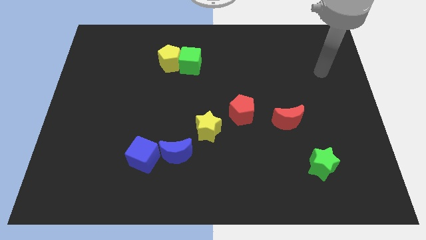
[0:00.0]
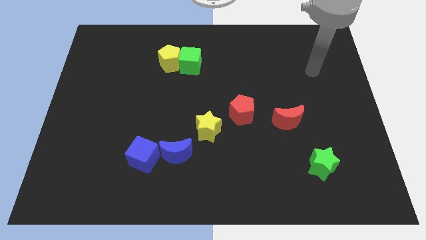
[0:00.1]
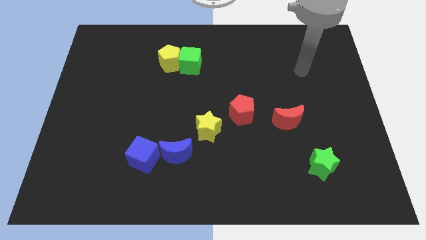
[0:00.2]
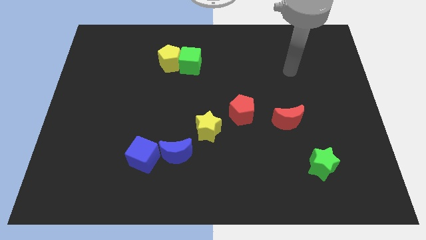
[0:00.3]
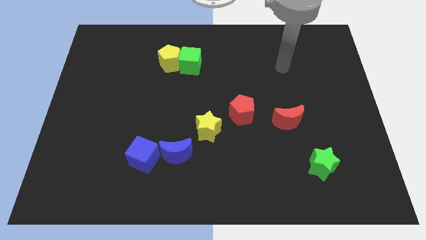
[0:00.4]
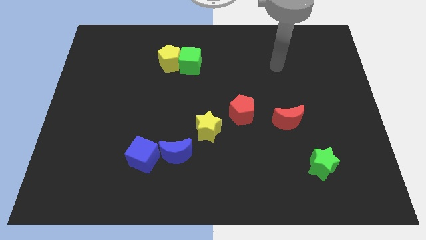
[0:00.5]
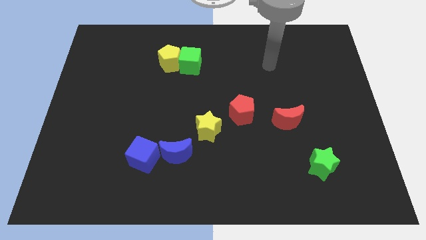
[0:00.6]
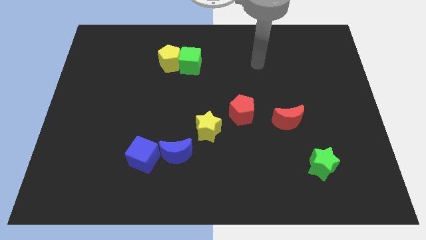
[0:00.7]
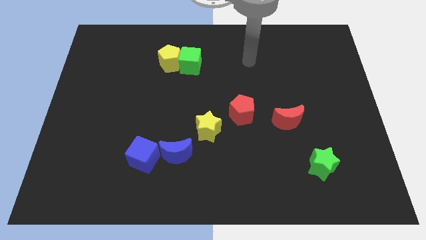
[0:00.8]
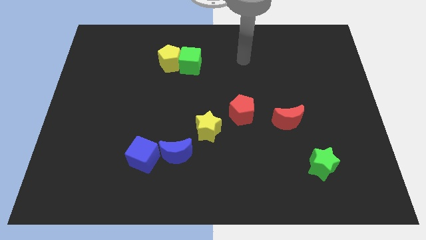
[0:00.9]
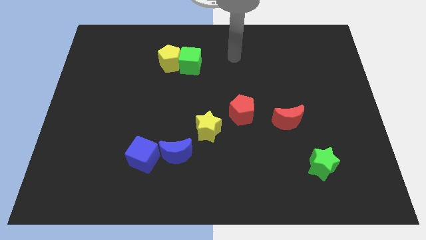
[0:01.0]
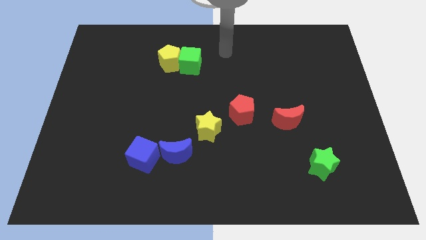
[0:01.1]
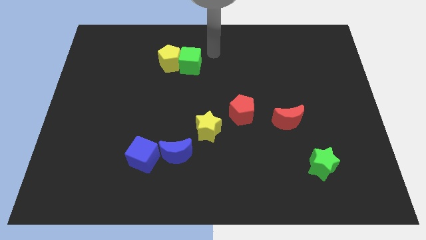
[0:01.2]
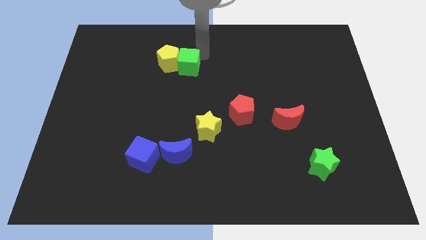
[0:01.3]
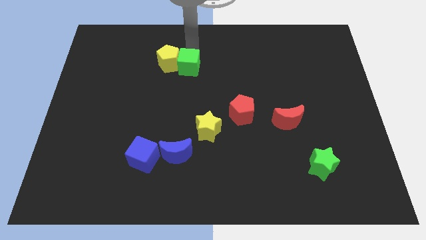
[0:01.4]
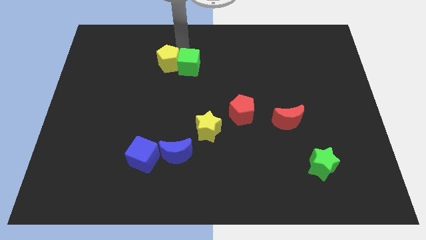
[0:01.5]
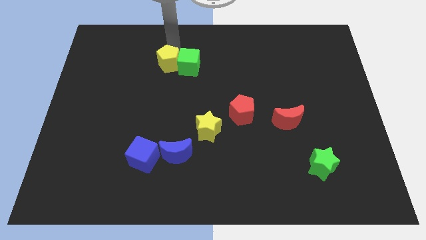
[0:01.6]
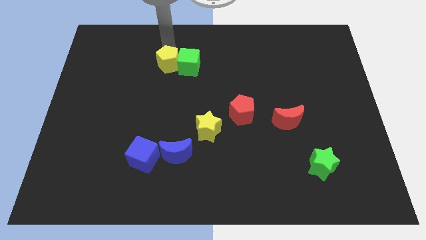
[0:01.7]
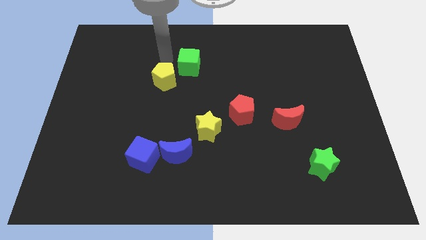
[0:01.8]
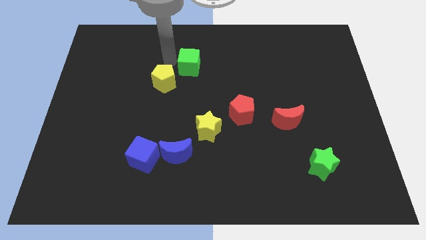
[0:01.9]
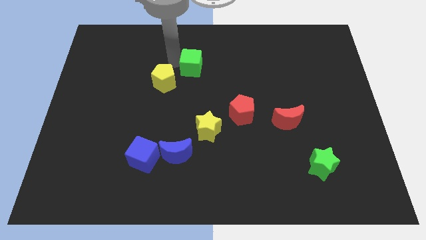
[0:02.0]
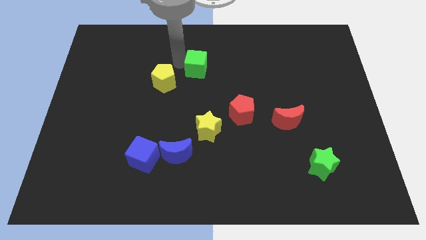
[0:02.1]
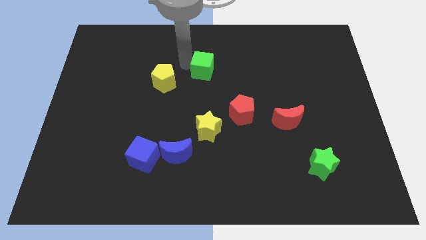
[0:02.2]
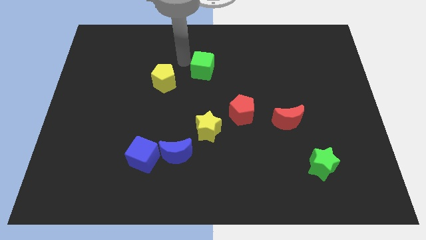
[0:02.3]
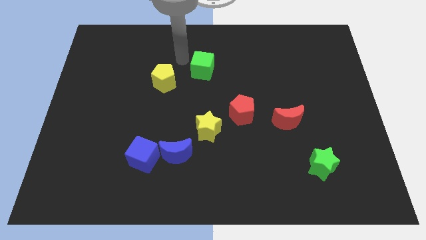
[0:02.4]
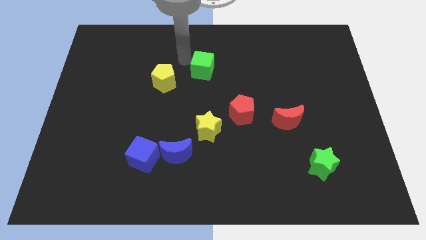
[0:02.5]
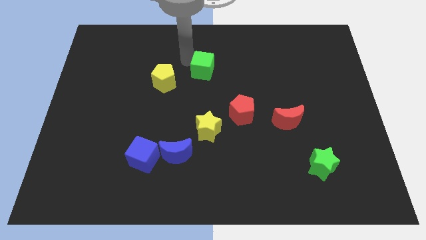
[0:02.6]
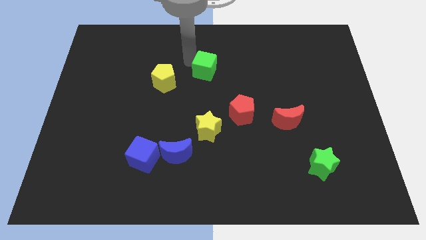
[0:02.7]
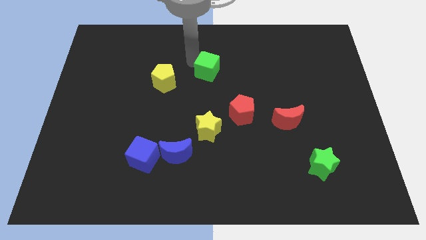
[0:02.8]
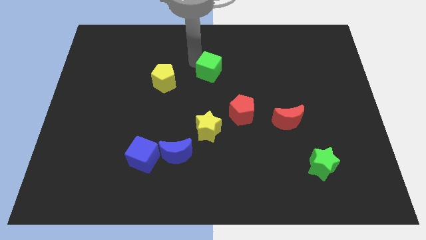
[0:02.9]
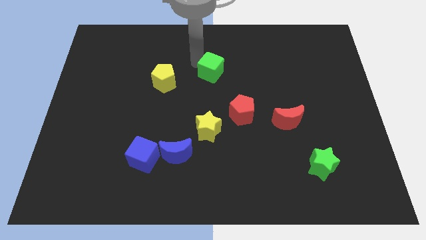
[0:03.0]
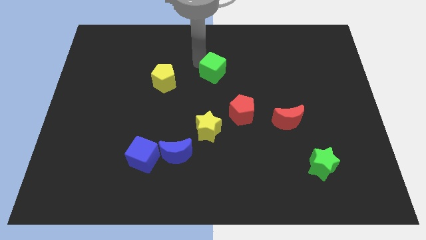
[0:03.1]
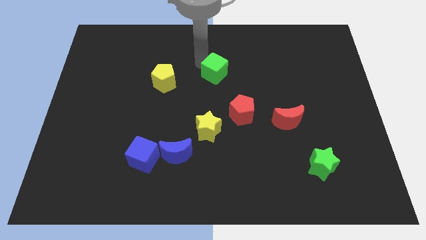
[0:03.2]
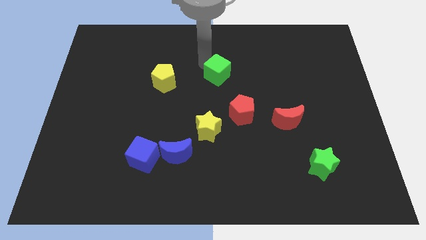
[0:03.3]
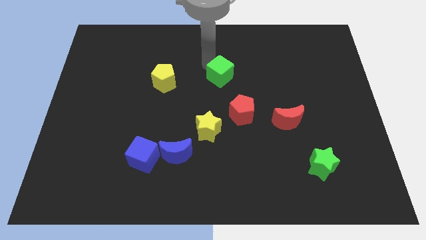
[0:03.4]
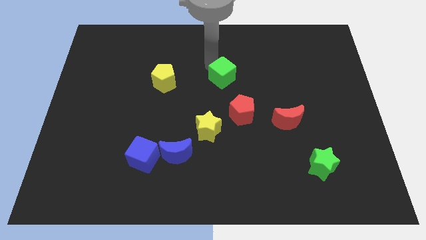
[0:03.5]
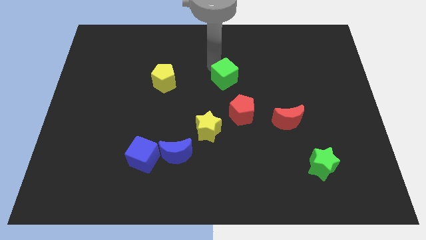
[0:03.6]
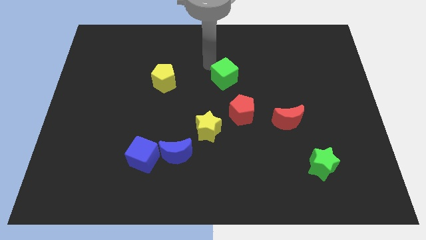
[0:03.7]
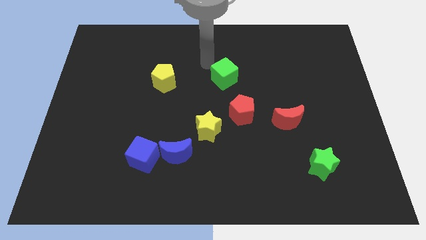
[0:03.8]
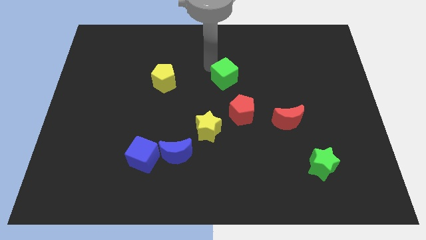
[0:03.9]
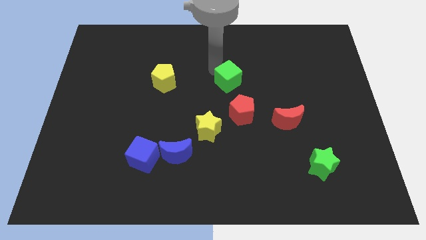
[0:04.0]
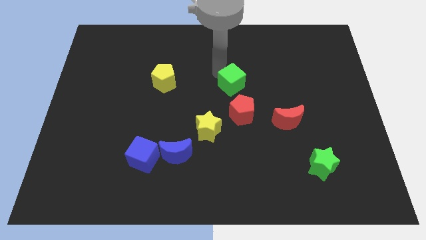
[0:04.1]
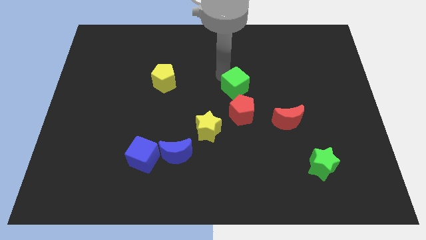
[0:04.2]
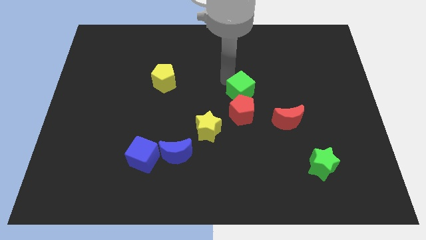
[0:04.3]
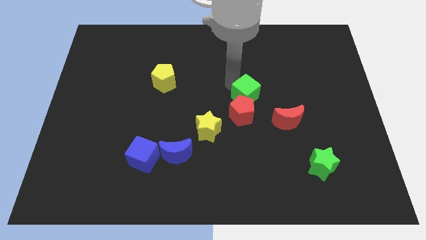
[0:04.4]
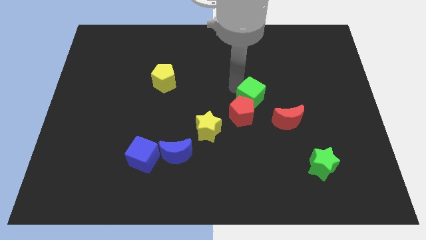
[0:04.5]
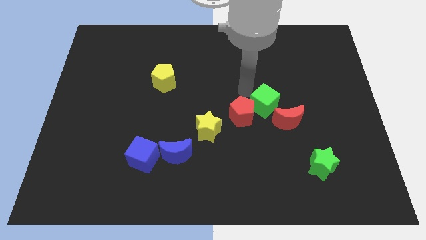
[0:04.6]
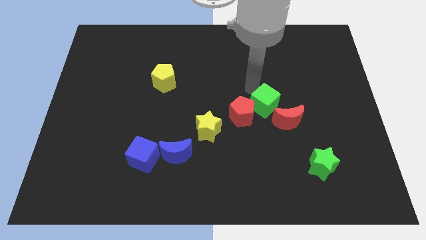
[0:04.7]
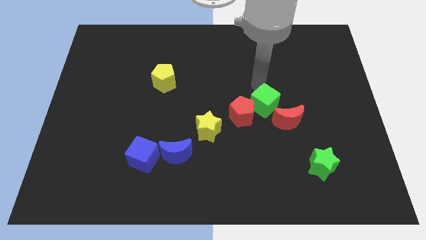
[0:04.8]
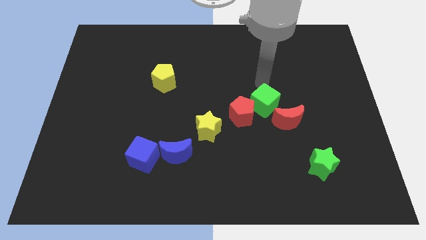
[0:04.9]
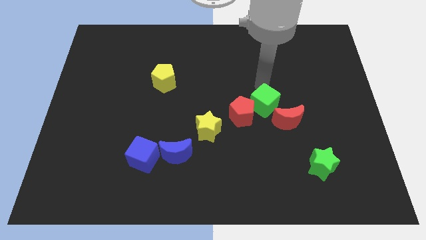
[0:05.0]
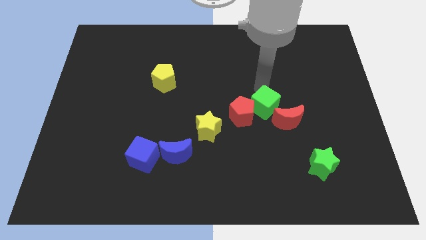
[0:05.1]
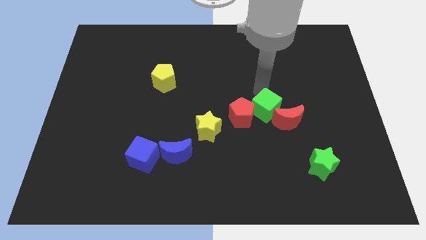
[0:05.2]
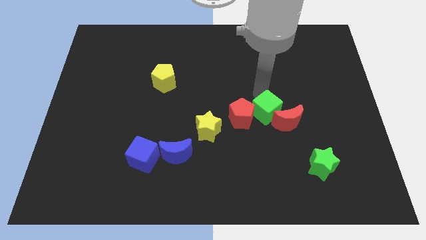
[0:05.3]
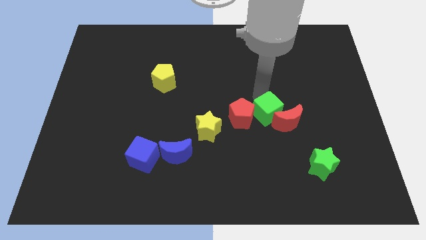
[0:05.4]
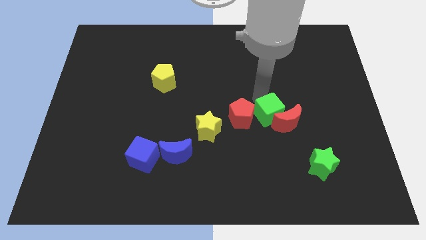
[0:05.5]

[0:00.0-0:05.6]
put the green cube diagonally down and to the right of the red pentagon

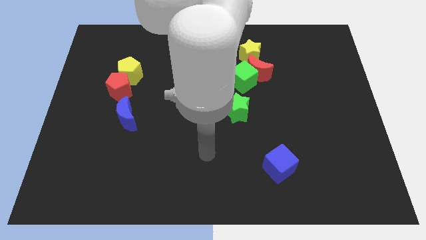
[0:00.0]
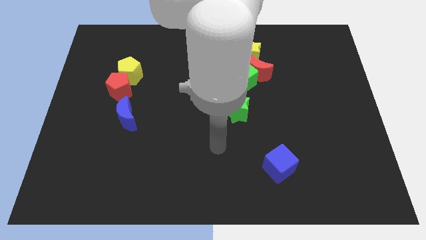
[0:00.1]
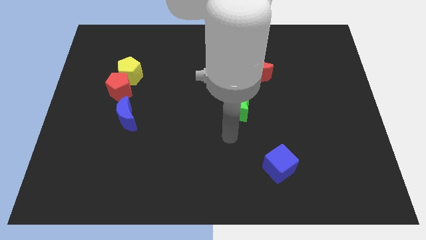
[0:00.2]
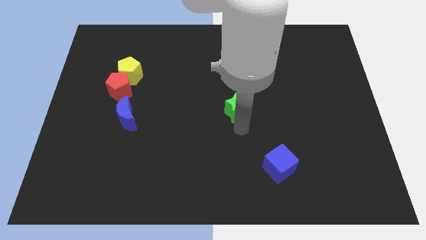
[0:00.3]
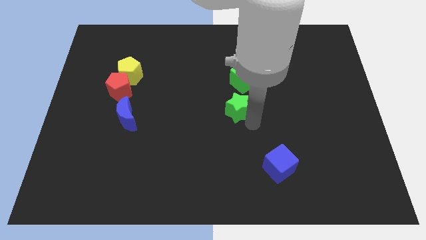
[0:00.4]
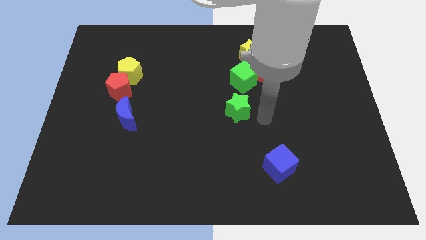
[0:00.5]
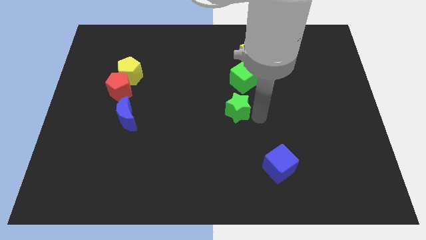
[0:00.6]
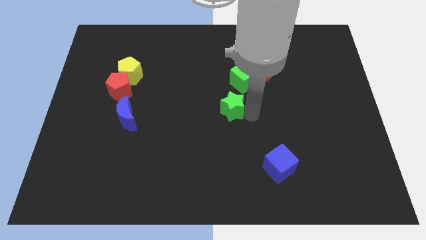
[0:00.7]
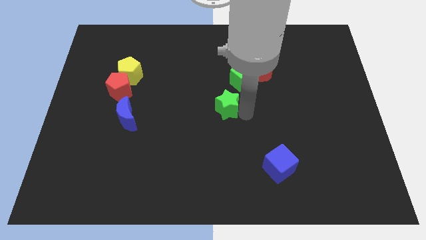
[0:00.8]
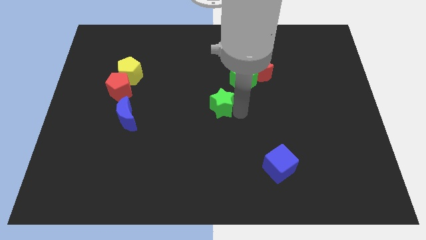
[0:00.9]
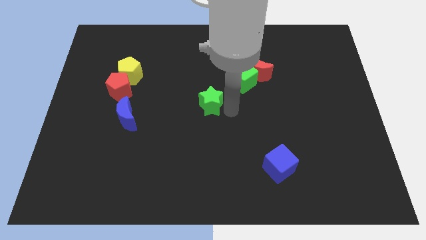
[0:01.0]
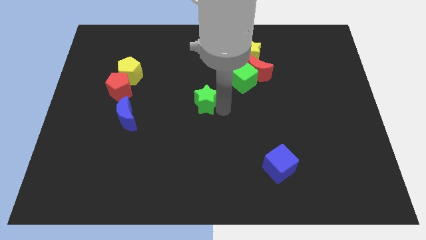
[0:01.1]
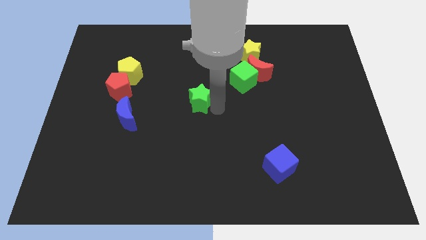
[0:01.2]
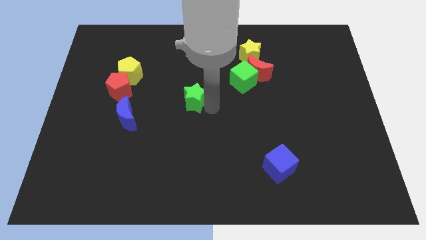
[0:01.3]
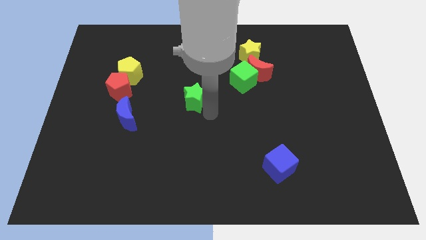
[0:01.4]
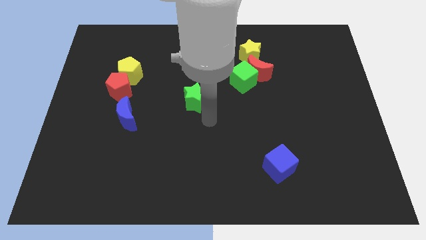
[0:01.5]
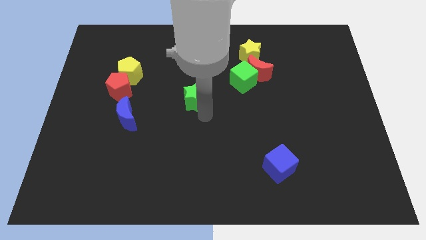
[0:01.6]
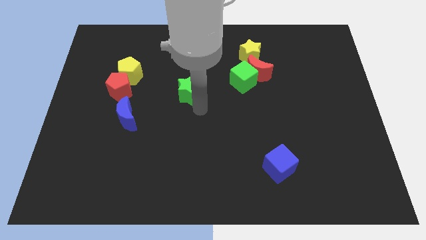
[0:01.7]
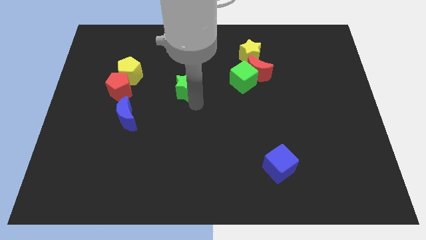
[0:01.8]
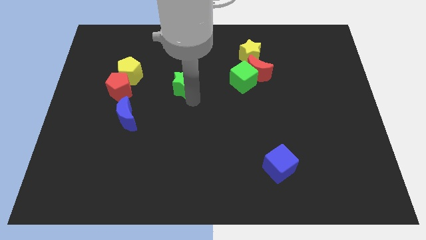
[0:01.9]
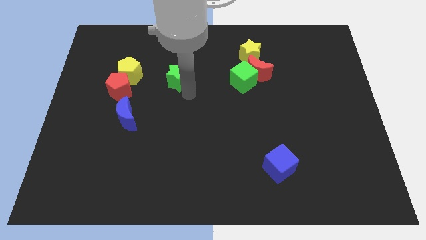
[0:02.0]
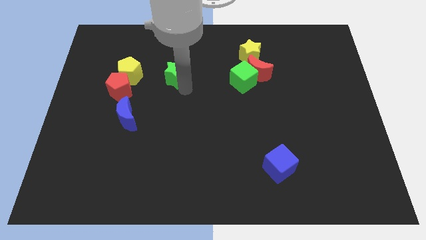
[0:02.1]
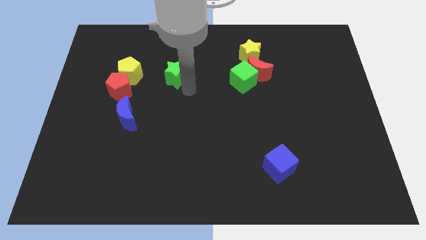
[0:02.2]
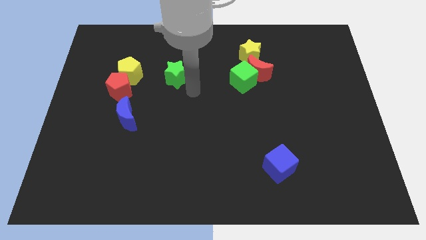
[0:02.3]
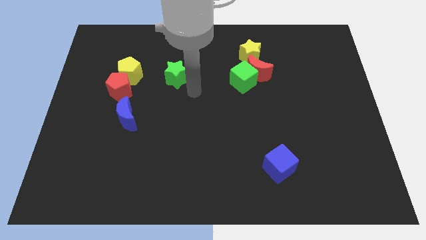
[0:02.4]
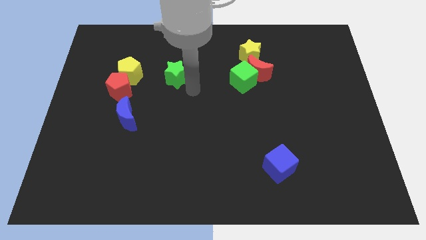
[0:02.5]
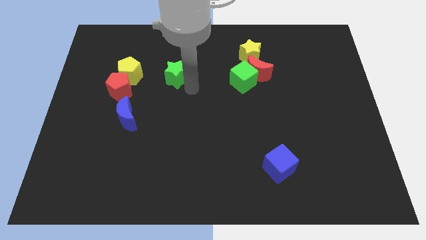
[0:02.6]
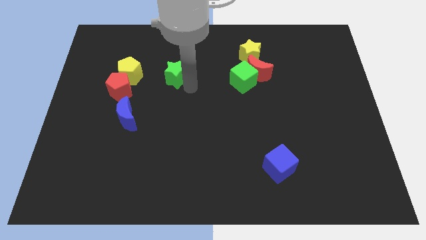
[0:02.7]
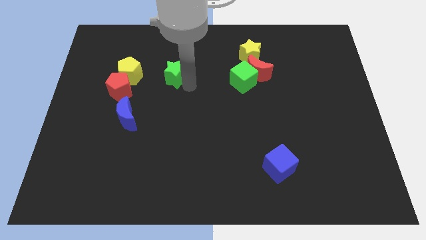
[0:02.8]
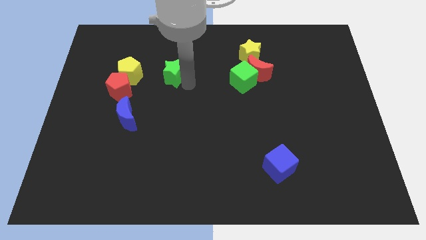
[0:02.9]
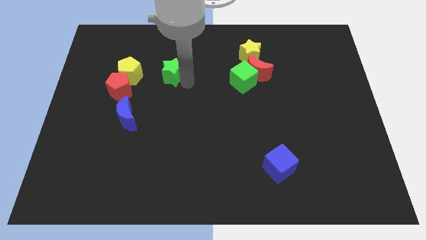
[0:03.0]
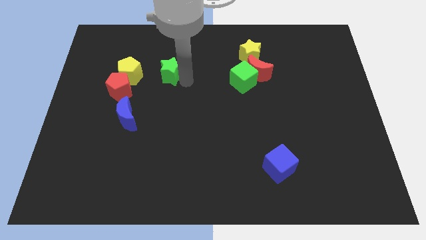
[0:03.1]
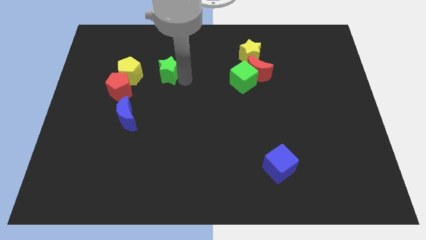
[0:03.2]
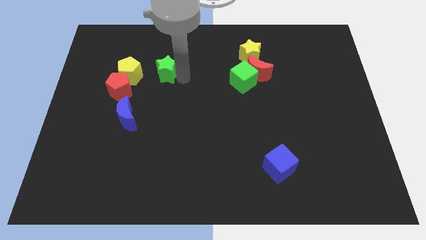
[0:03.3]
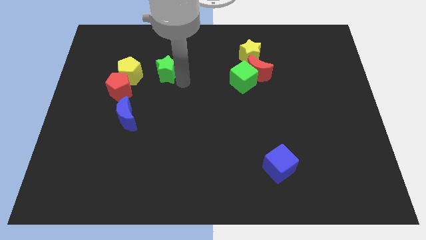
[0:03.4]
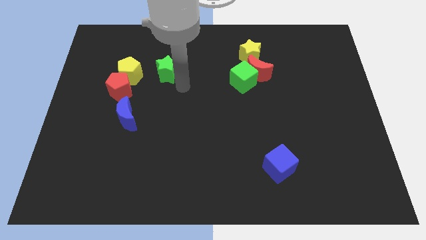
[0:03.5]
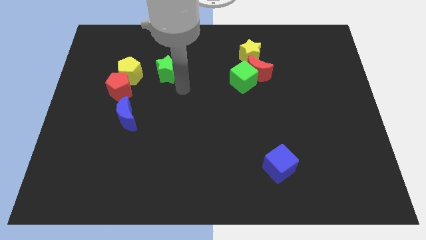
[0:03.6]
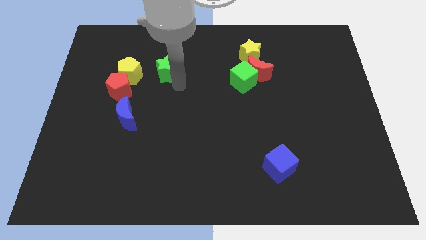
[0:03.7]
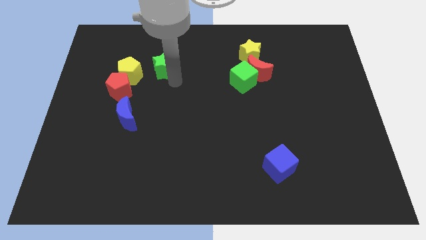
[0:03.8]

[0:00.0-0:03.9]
push the green star diagonally up and to the right of the yellow pentagon
